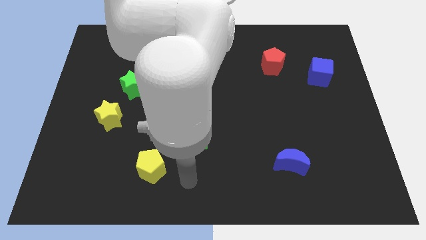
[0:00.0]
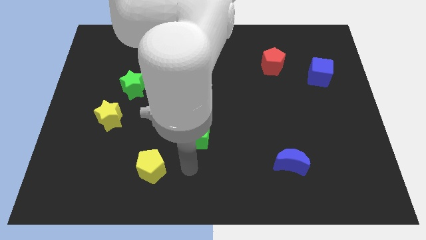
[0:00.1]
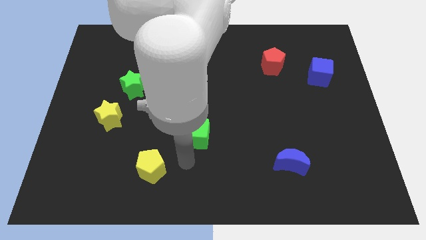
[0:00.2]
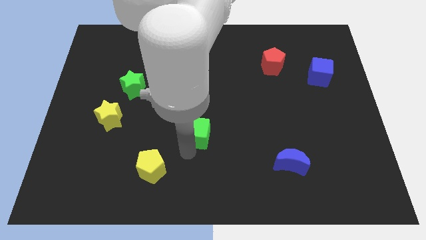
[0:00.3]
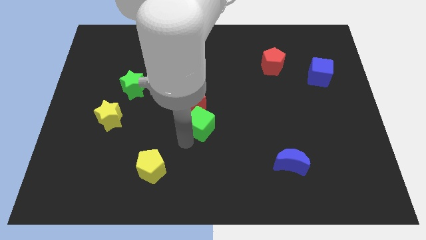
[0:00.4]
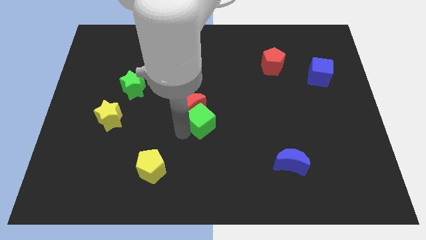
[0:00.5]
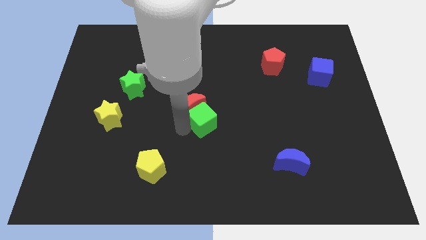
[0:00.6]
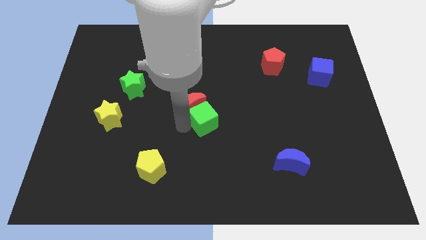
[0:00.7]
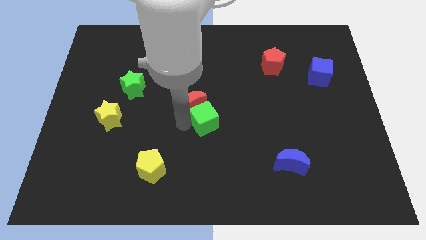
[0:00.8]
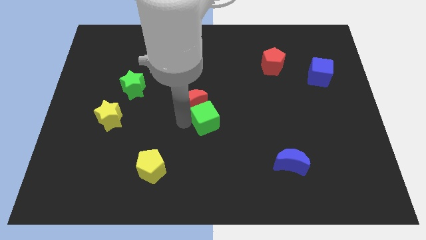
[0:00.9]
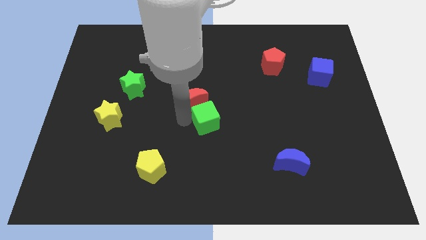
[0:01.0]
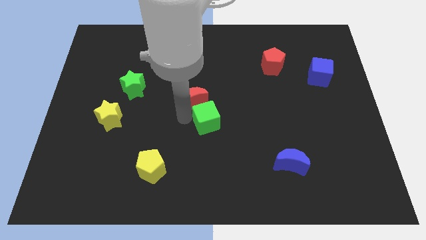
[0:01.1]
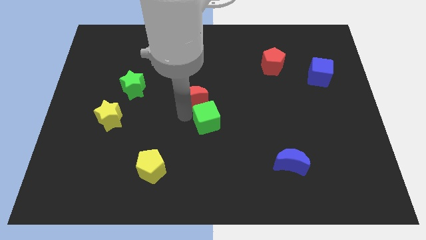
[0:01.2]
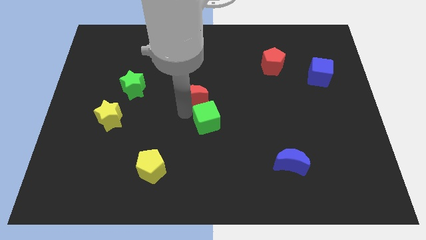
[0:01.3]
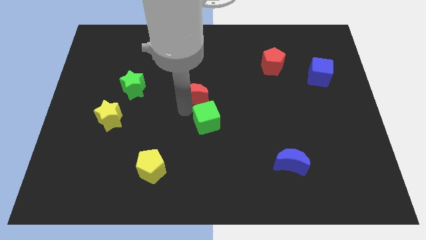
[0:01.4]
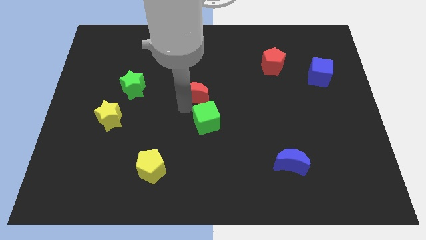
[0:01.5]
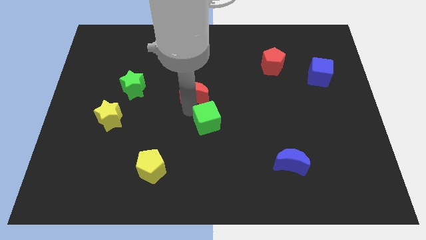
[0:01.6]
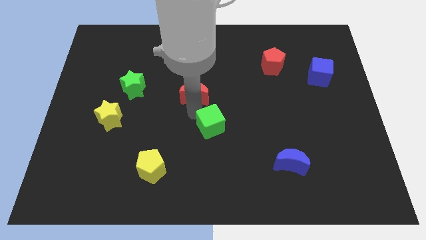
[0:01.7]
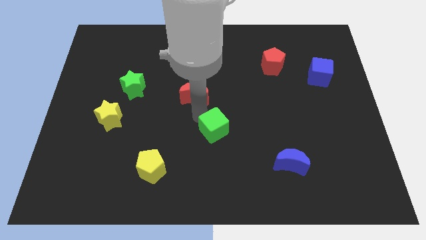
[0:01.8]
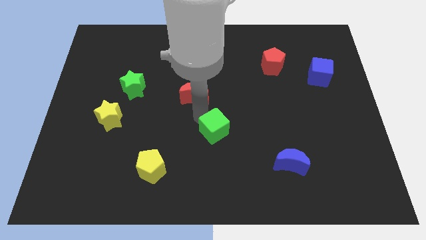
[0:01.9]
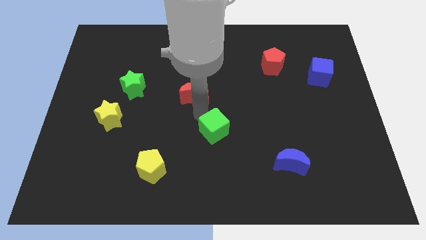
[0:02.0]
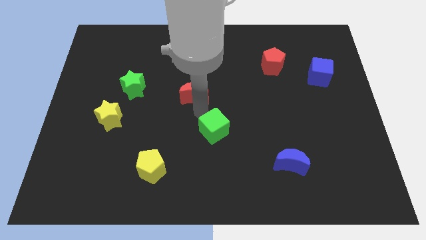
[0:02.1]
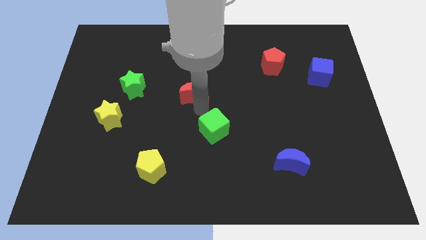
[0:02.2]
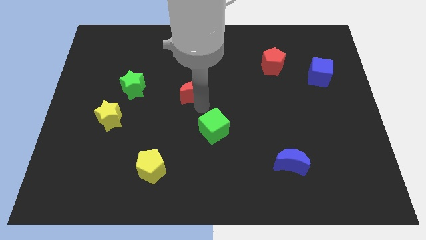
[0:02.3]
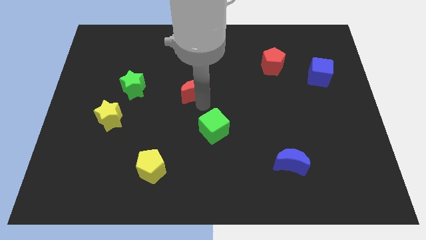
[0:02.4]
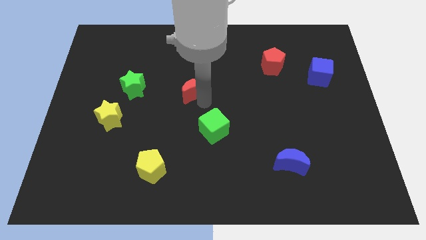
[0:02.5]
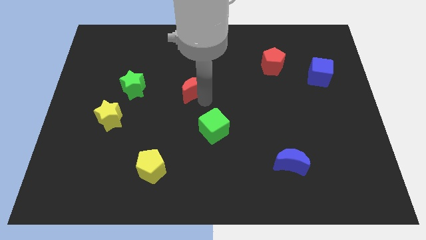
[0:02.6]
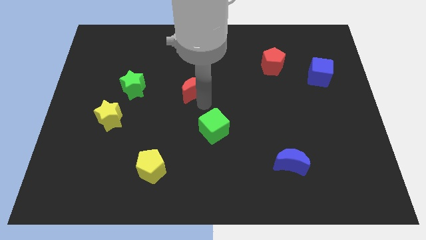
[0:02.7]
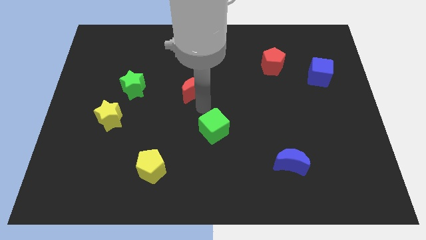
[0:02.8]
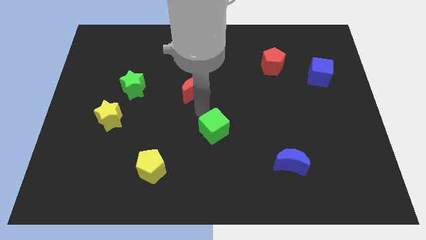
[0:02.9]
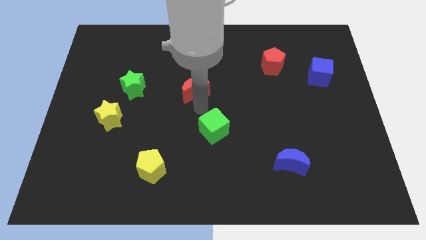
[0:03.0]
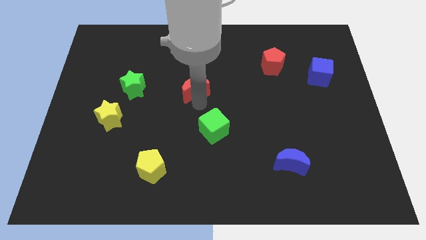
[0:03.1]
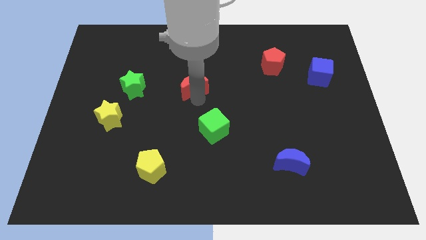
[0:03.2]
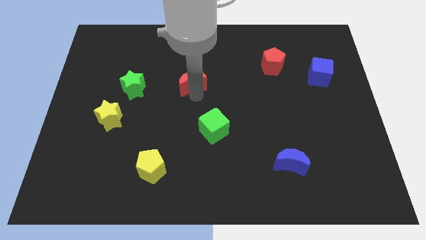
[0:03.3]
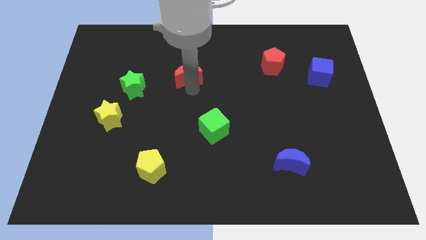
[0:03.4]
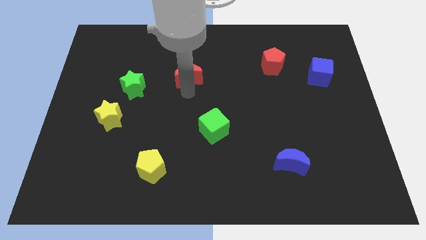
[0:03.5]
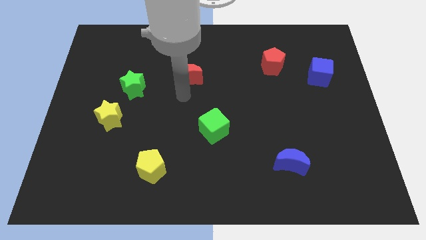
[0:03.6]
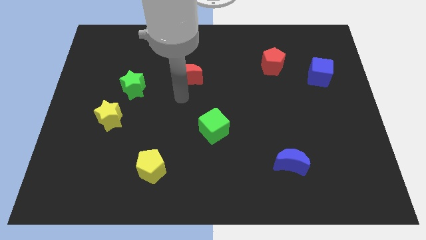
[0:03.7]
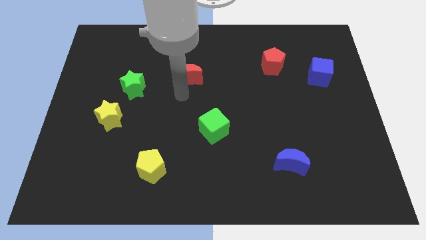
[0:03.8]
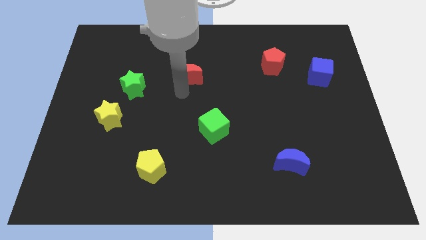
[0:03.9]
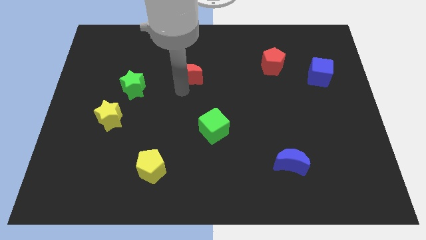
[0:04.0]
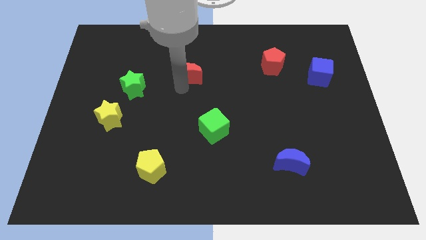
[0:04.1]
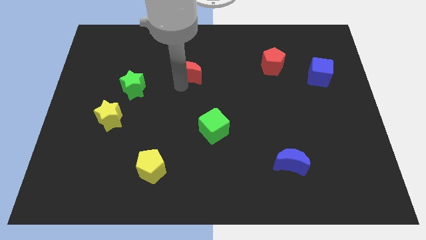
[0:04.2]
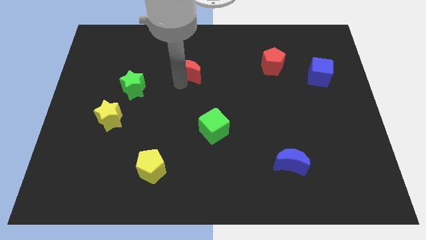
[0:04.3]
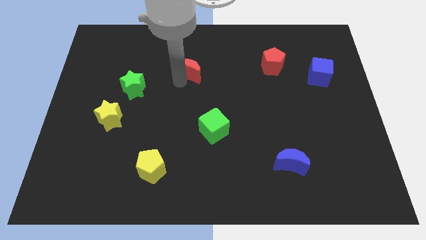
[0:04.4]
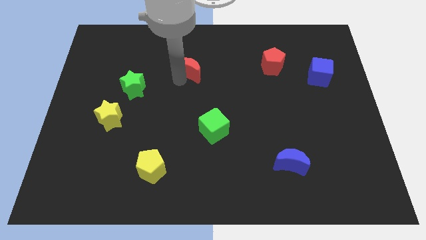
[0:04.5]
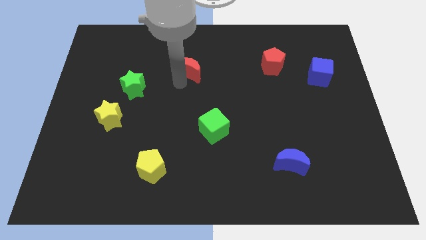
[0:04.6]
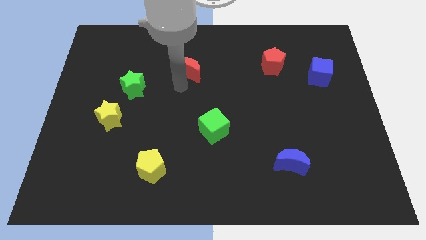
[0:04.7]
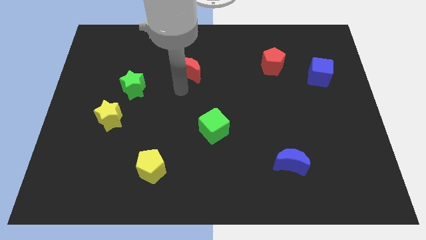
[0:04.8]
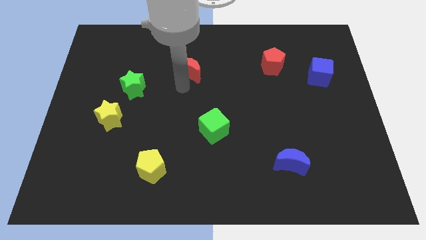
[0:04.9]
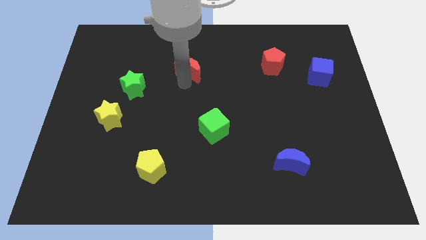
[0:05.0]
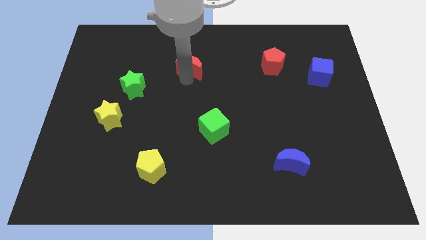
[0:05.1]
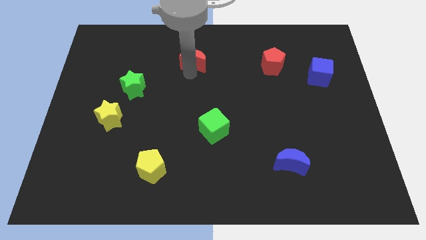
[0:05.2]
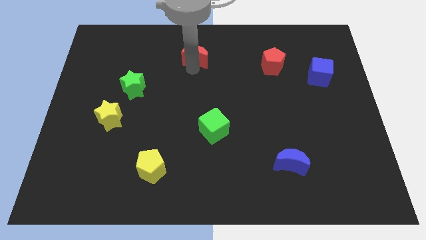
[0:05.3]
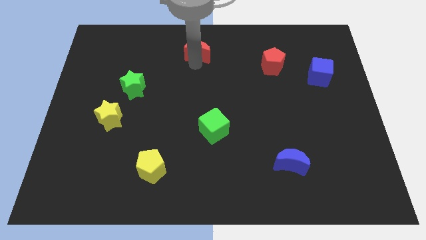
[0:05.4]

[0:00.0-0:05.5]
push the red moon to the top

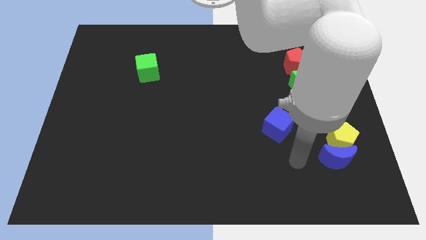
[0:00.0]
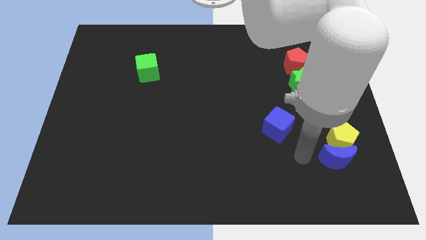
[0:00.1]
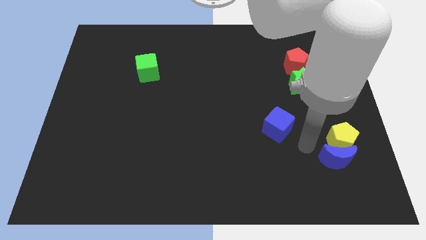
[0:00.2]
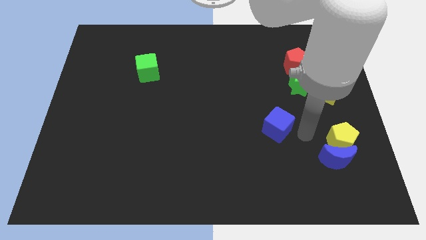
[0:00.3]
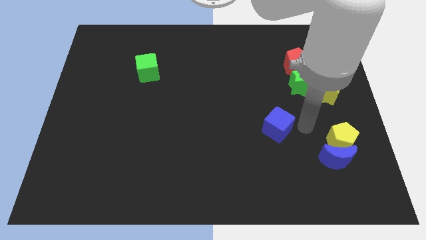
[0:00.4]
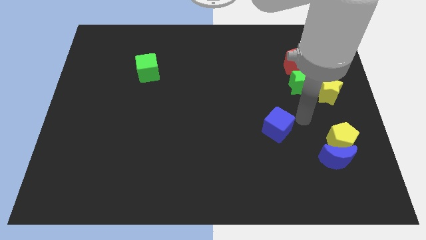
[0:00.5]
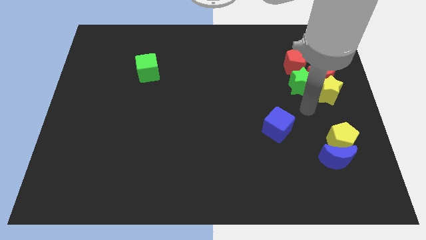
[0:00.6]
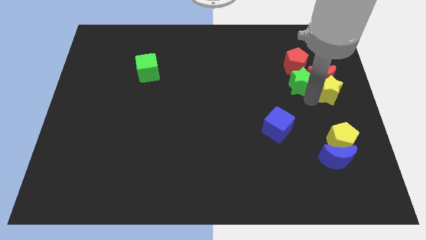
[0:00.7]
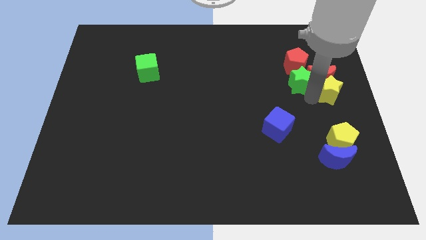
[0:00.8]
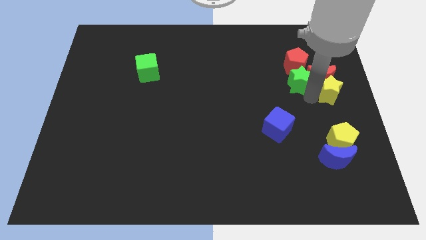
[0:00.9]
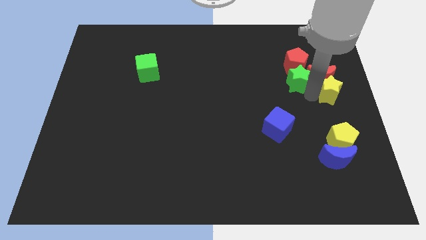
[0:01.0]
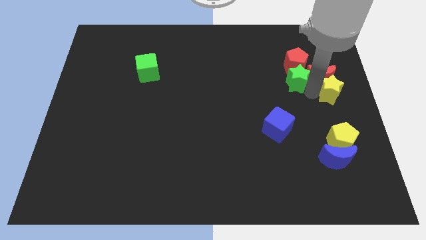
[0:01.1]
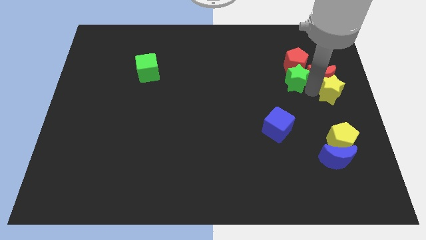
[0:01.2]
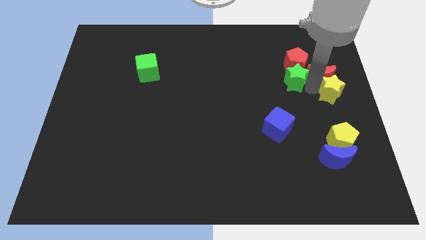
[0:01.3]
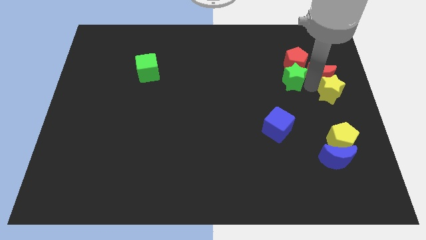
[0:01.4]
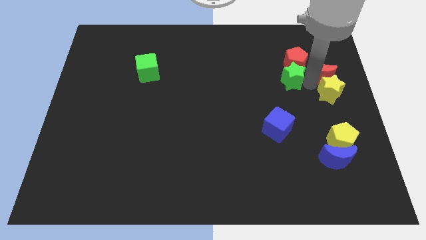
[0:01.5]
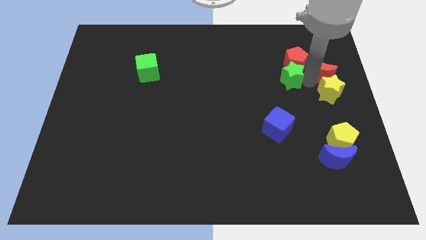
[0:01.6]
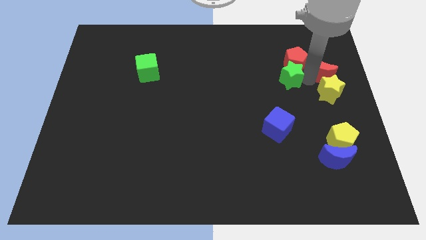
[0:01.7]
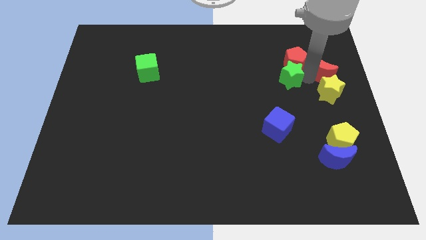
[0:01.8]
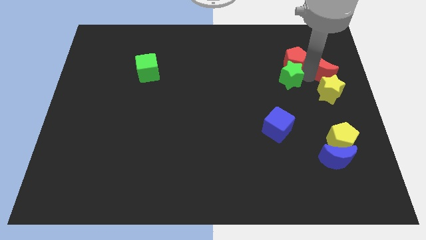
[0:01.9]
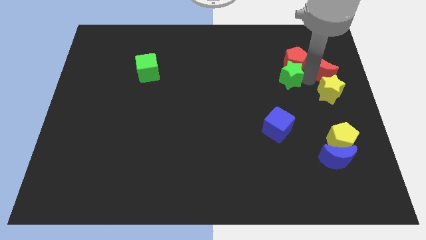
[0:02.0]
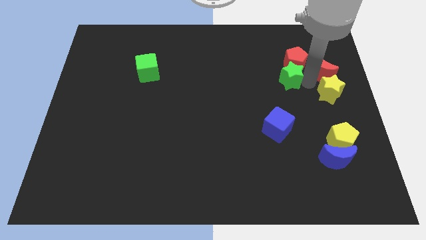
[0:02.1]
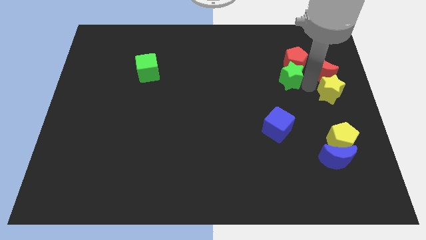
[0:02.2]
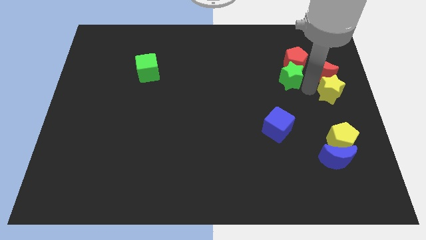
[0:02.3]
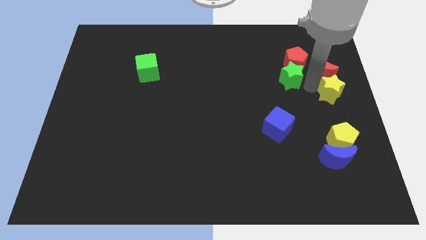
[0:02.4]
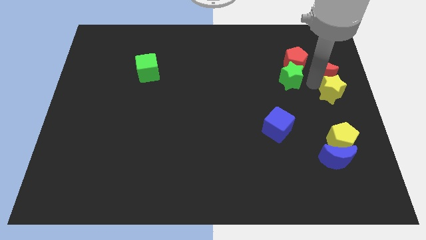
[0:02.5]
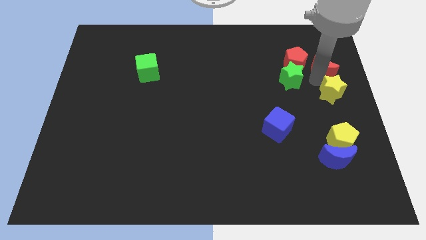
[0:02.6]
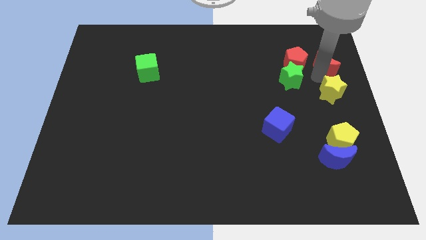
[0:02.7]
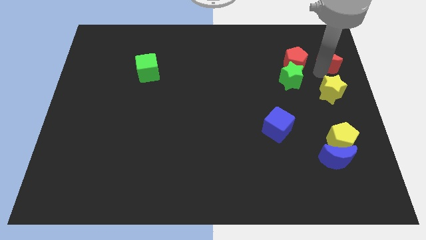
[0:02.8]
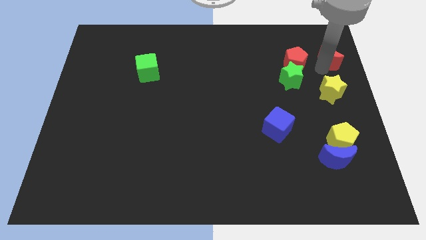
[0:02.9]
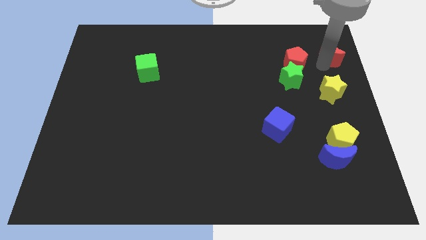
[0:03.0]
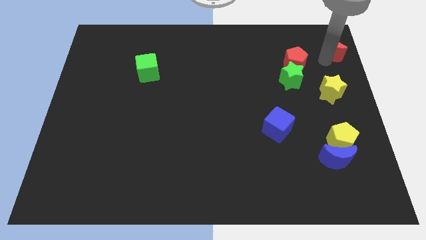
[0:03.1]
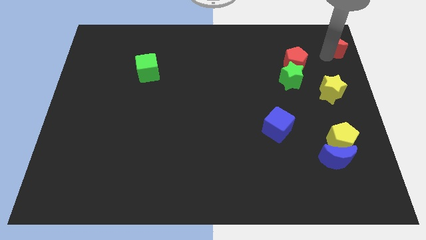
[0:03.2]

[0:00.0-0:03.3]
move the red moon to the upper right corner
